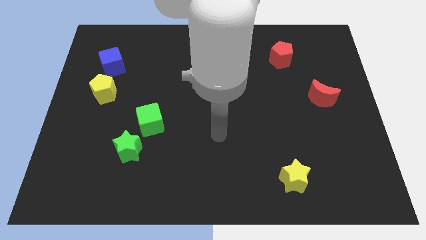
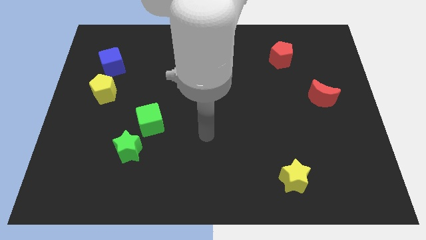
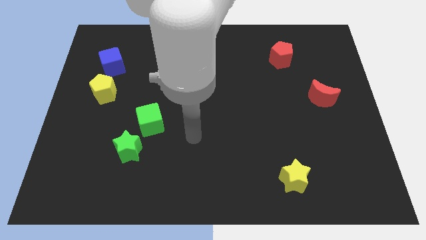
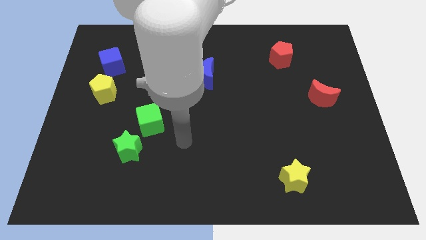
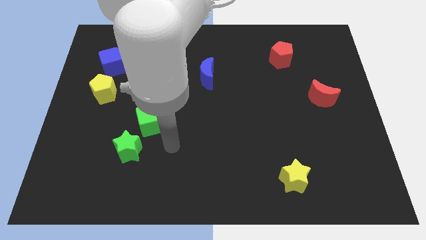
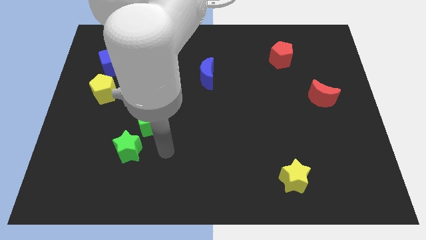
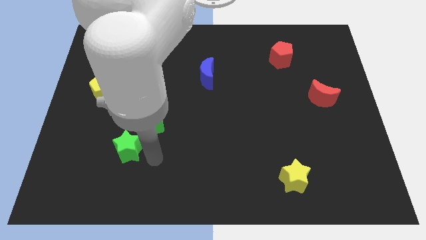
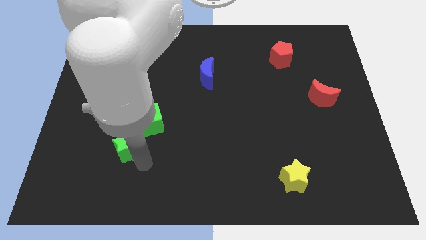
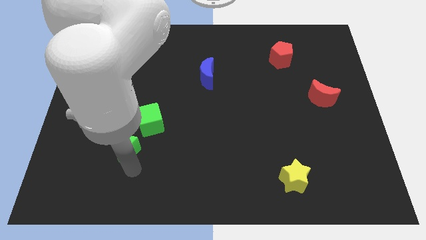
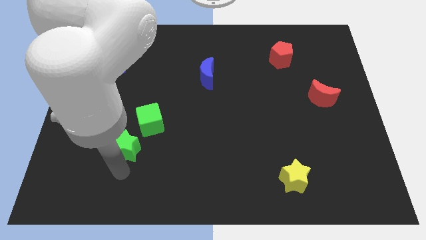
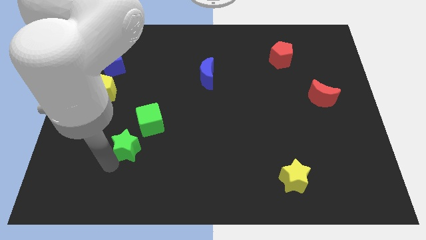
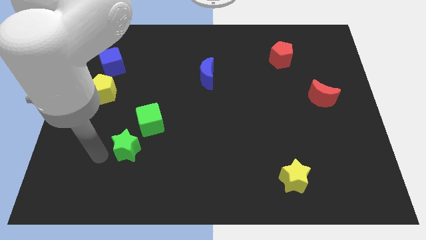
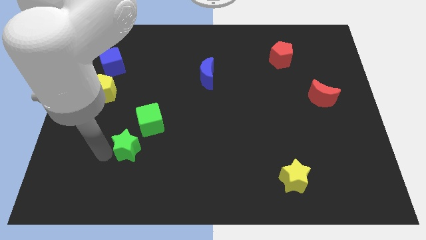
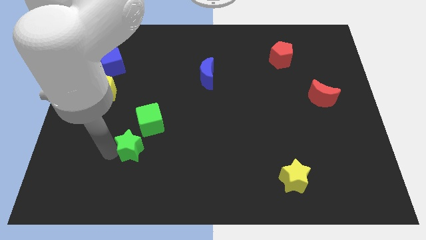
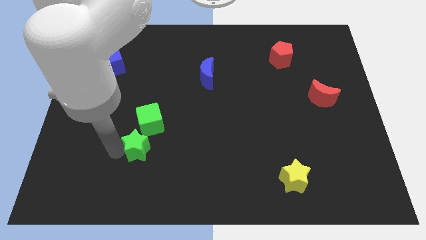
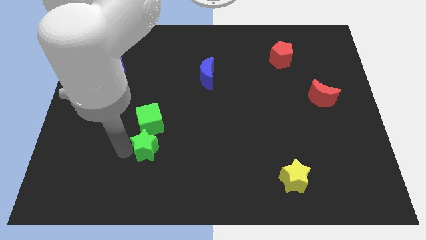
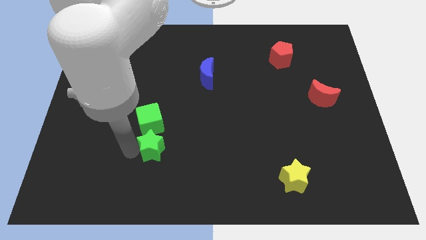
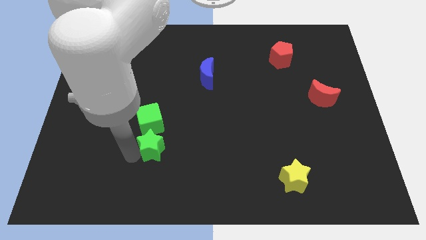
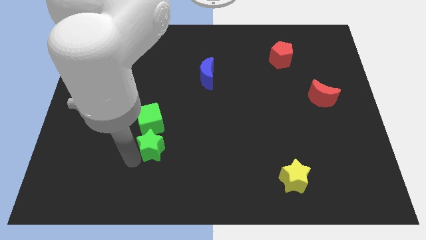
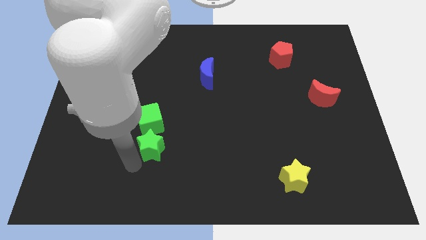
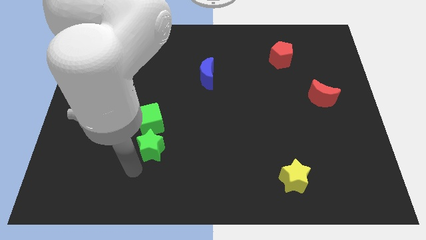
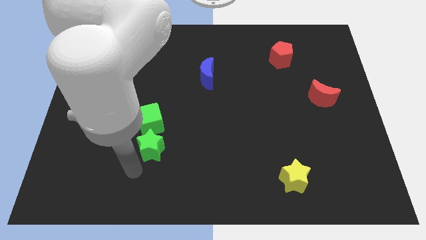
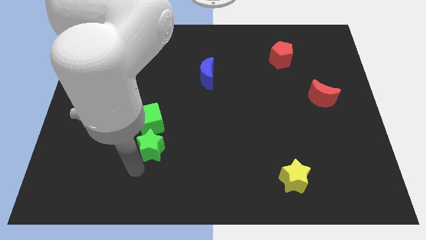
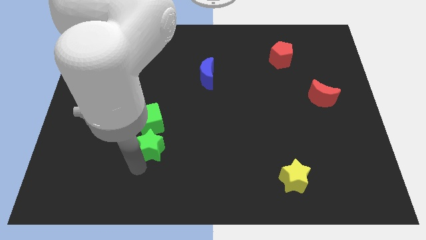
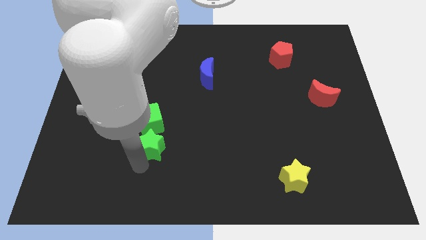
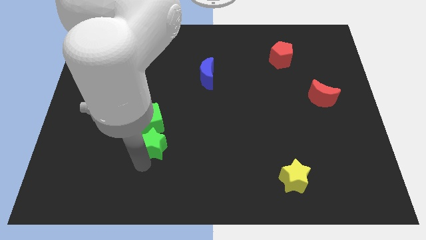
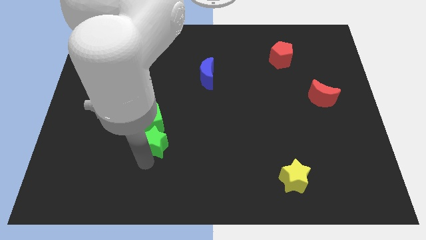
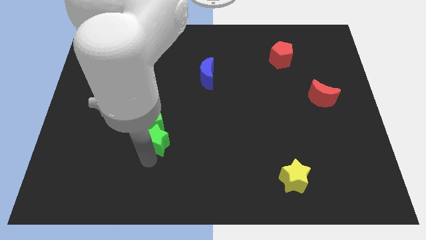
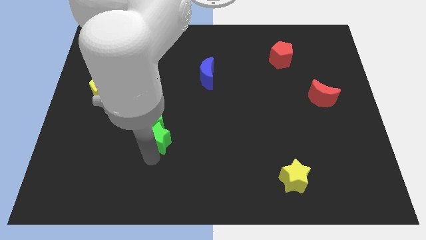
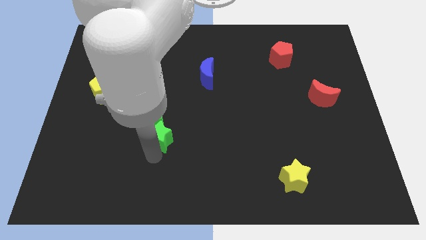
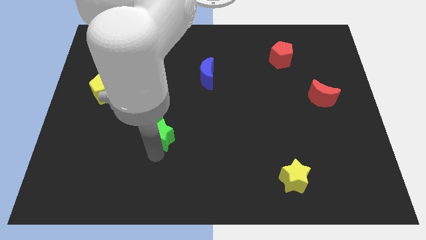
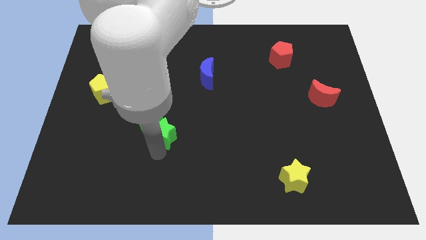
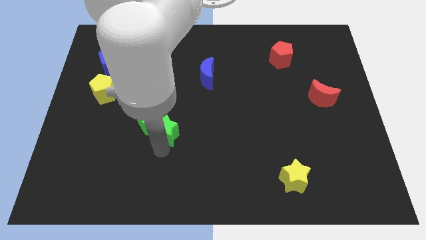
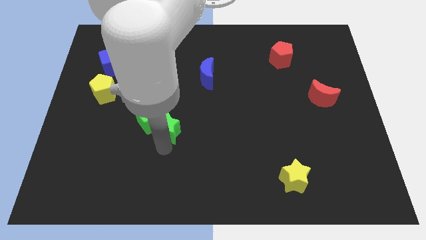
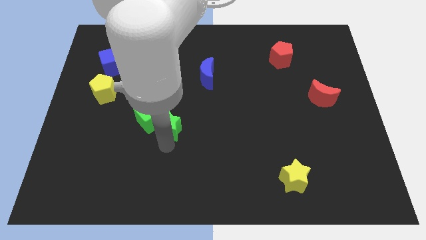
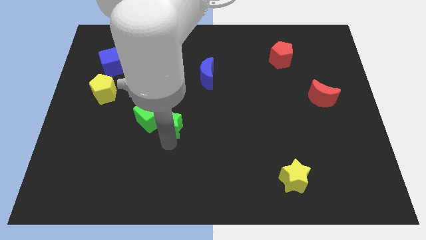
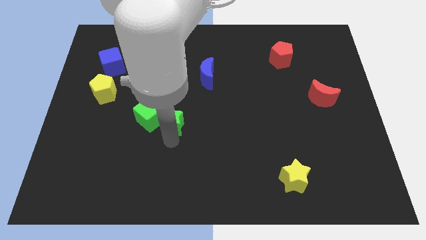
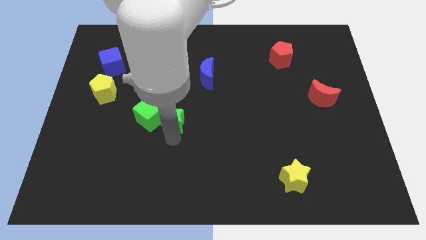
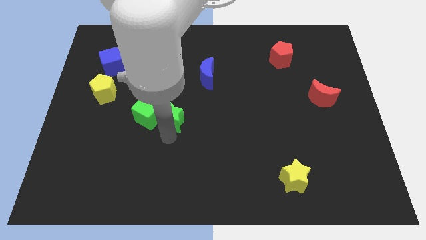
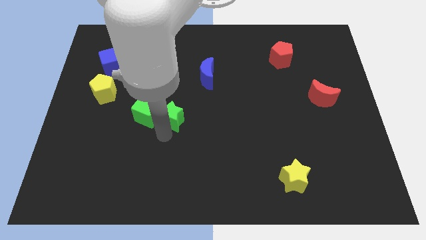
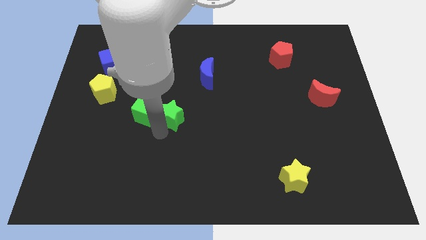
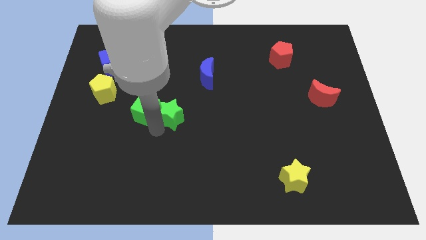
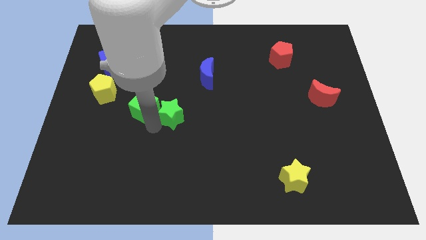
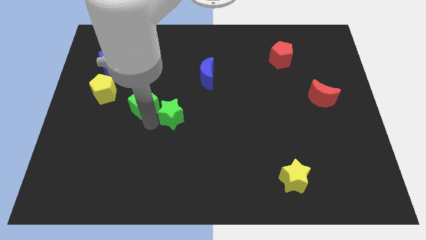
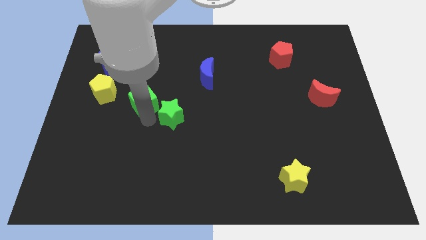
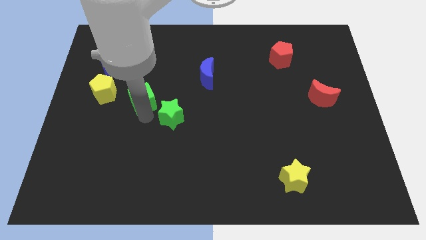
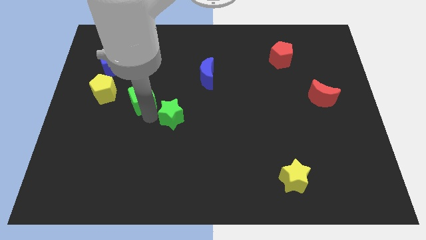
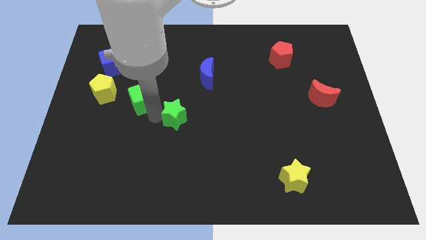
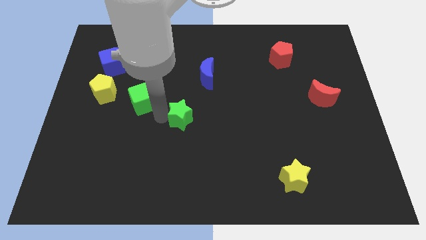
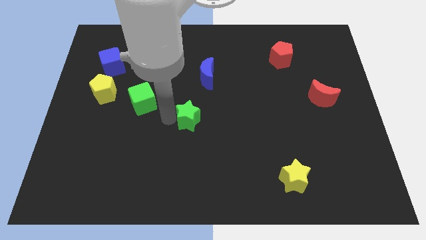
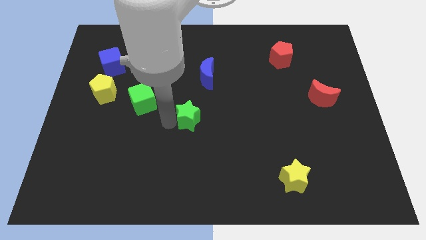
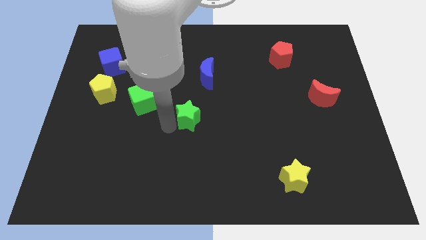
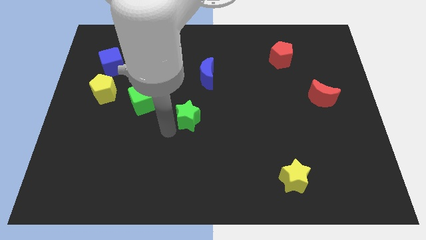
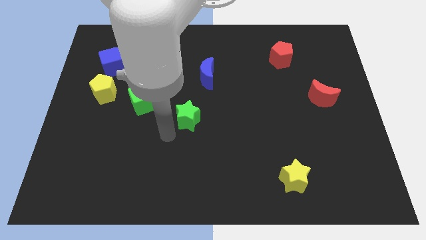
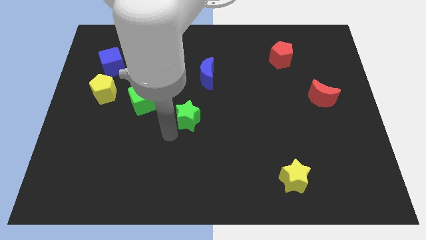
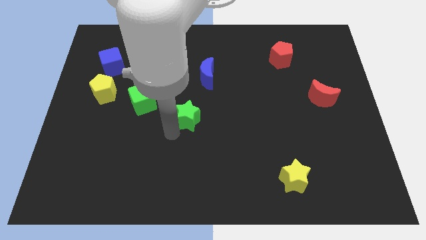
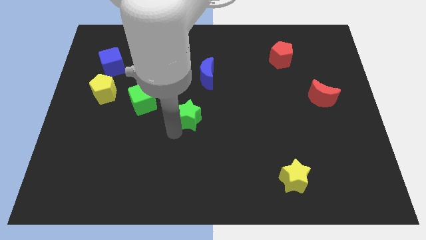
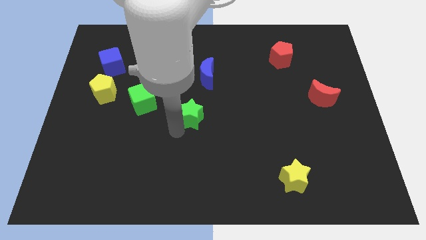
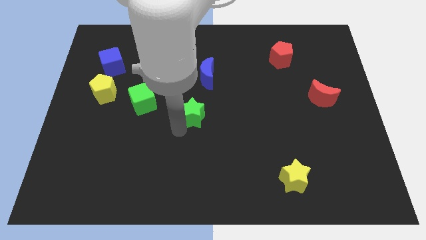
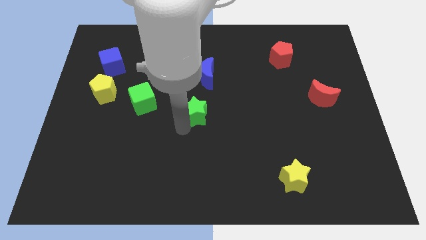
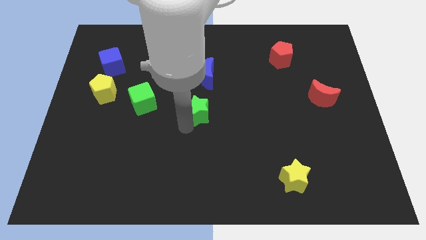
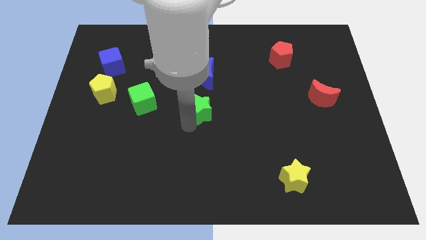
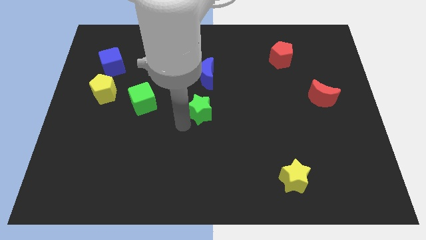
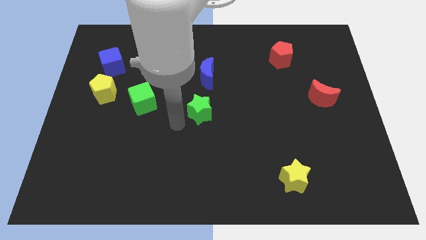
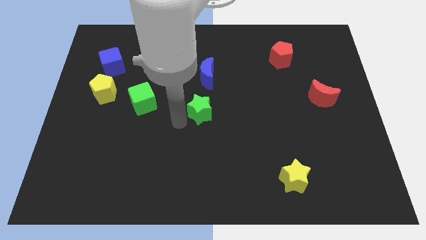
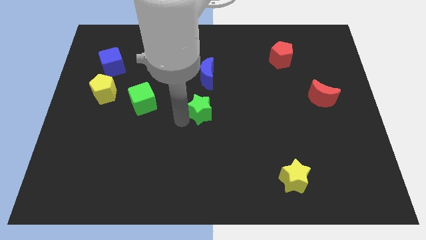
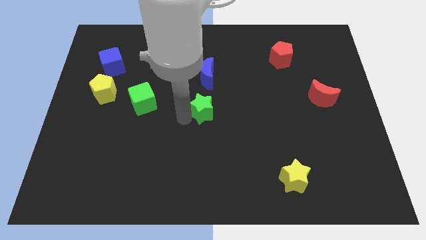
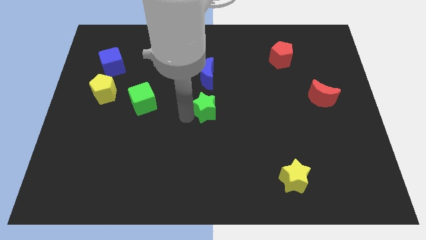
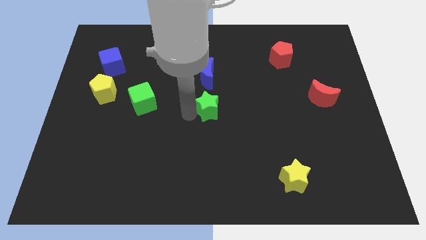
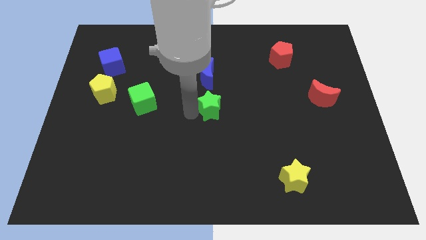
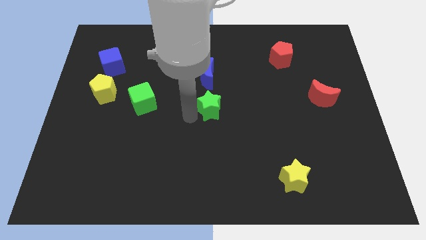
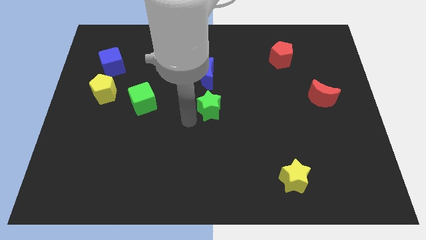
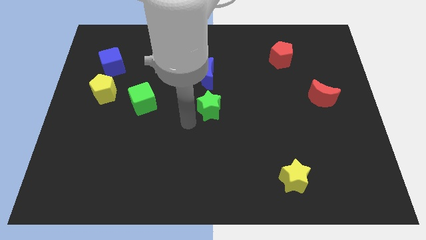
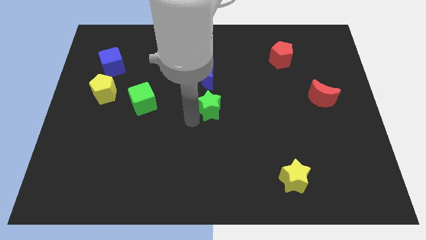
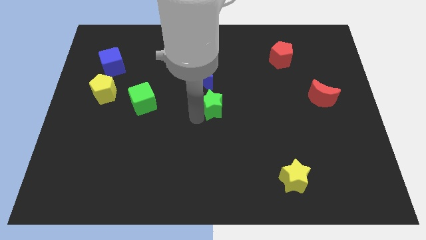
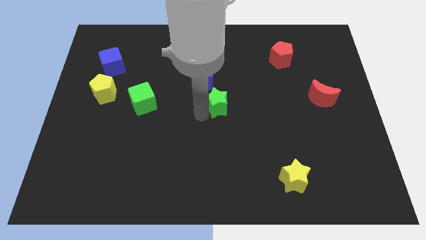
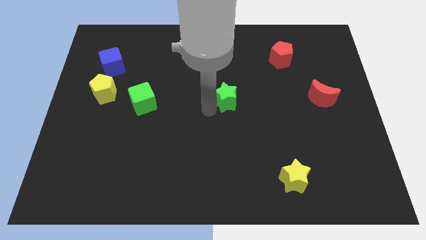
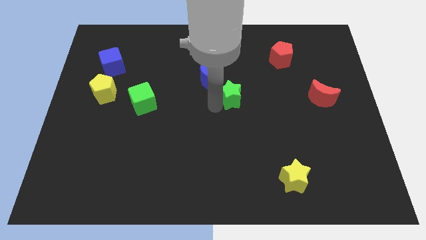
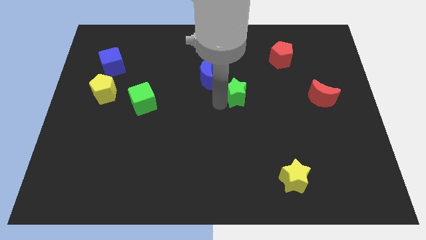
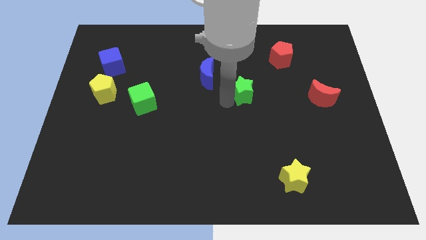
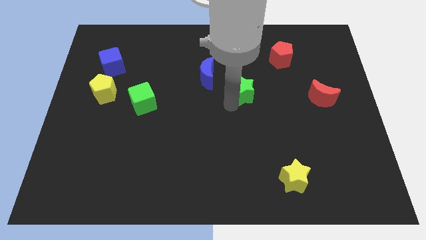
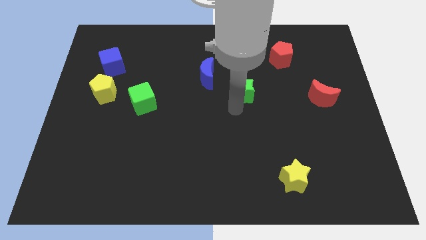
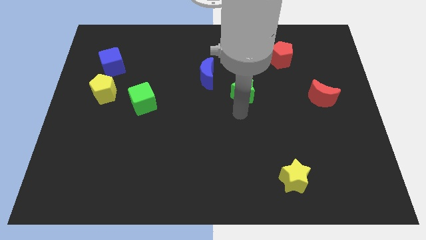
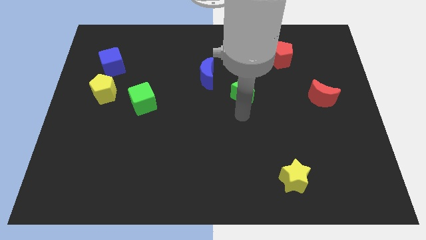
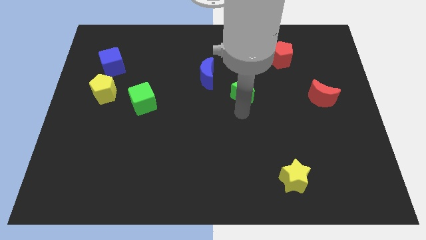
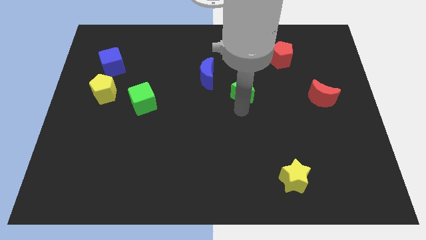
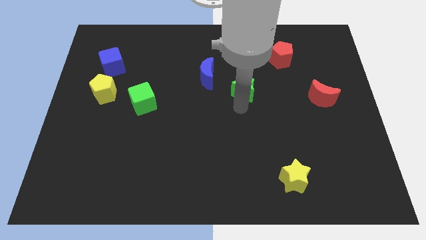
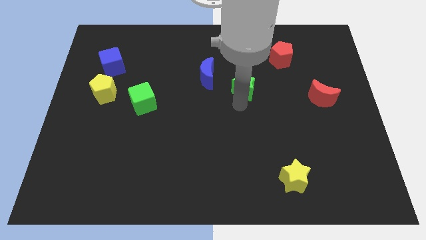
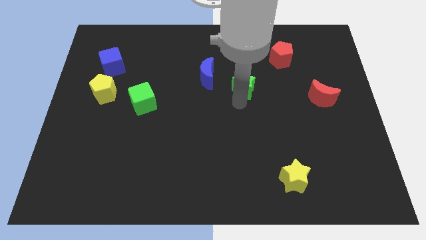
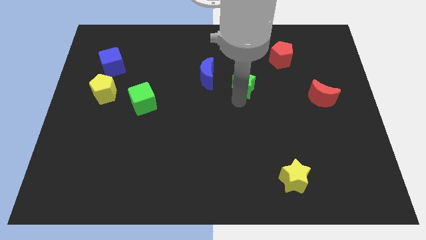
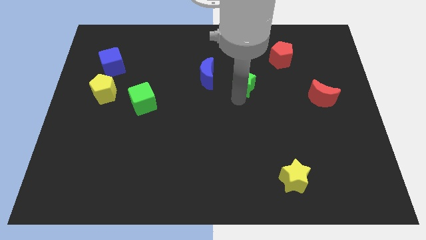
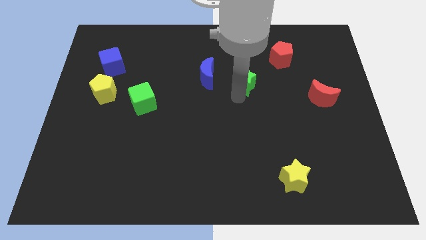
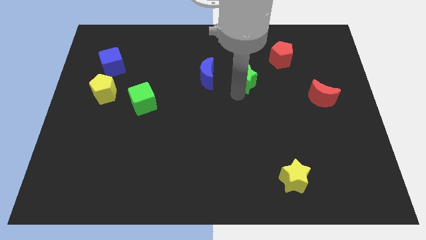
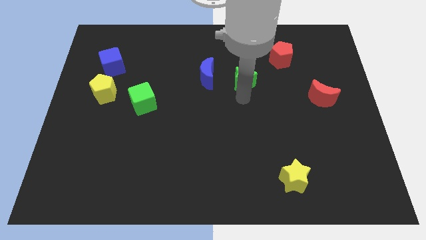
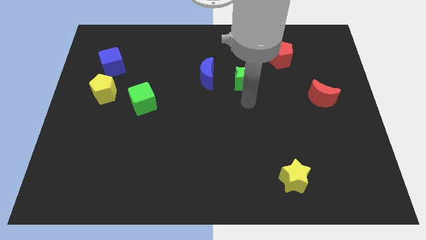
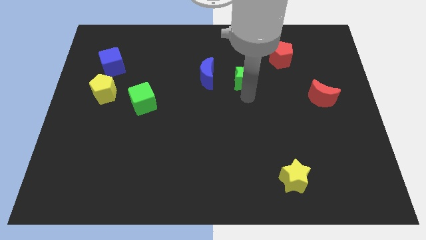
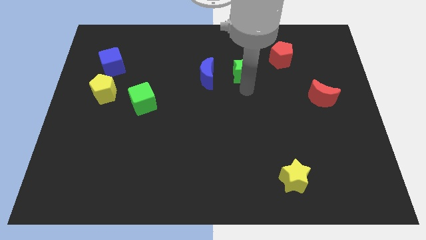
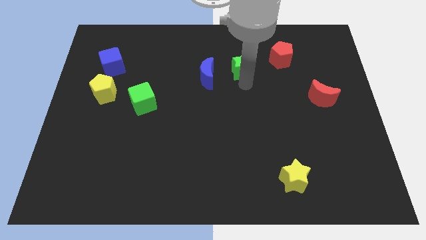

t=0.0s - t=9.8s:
push the green star left of the red pentagon
